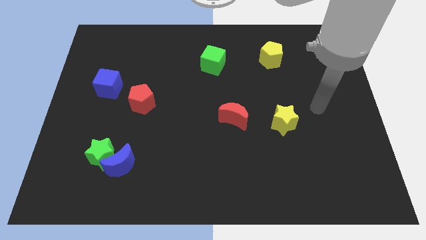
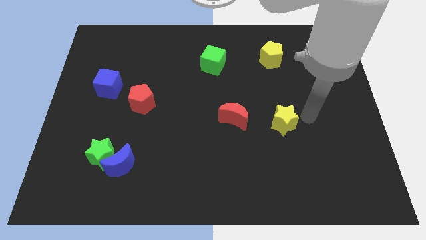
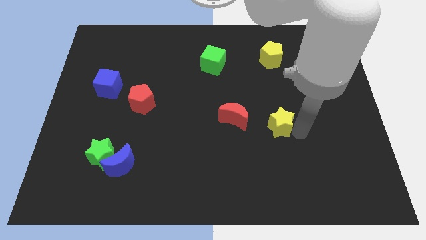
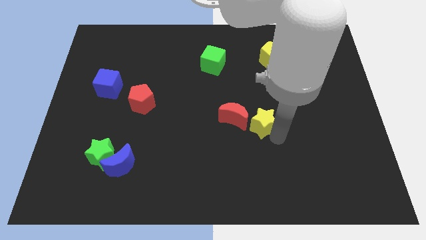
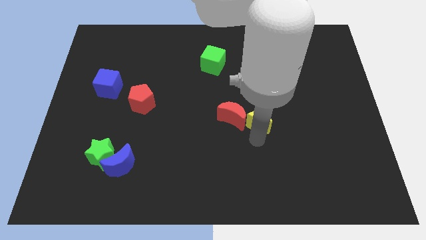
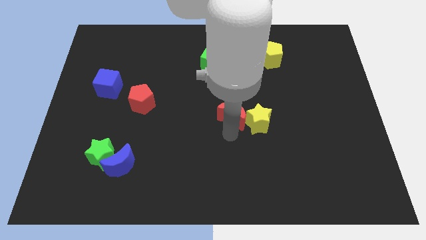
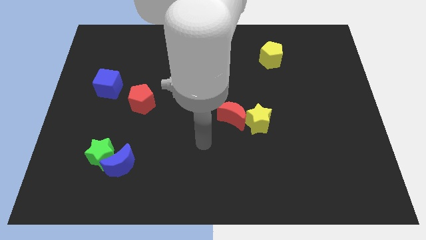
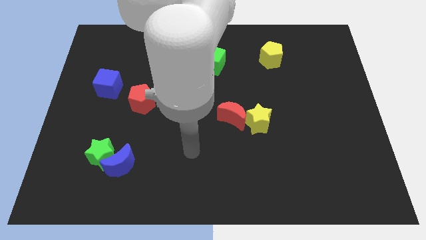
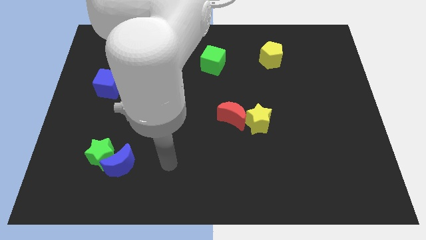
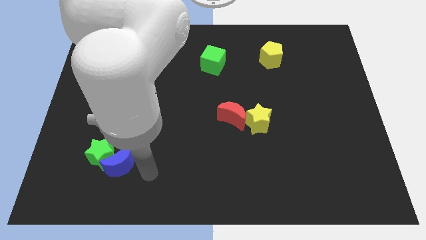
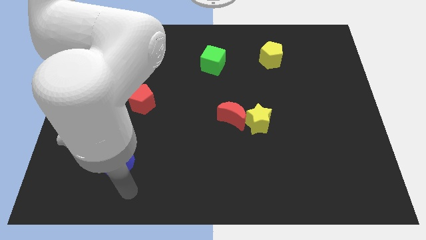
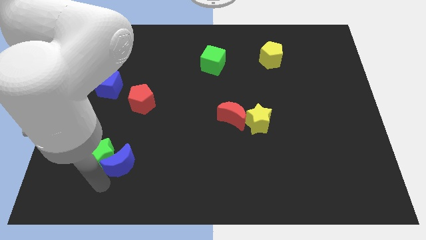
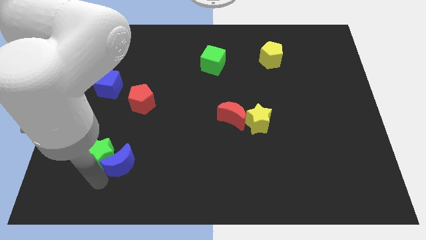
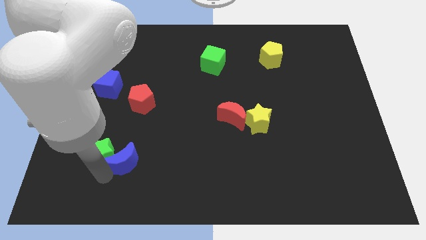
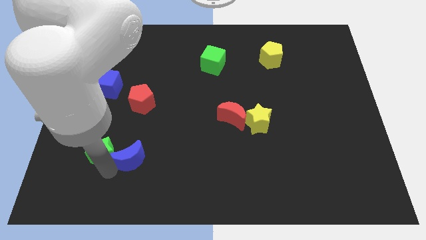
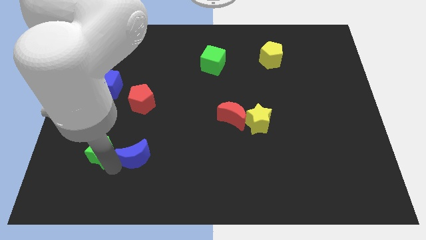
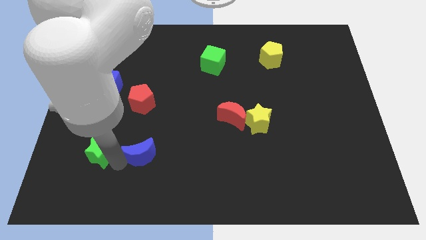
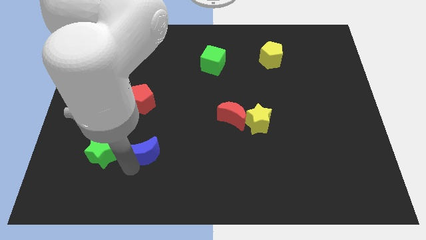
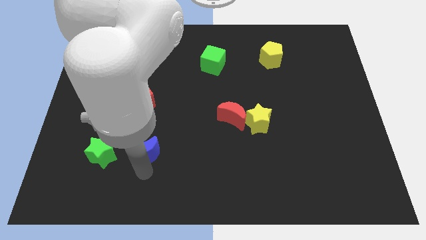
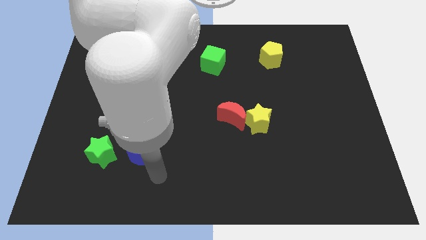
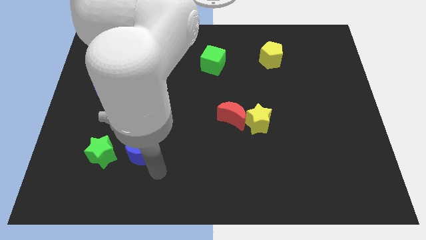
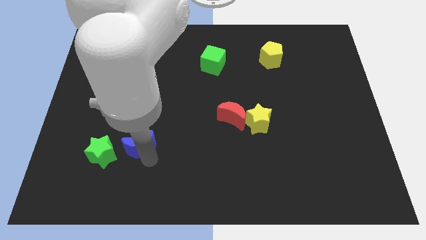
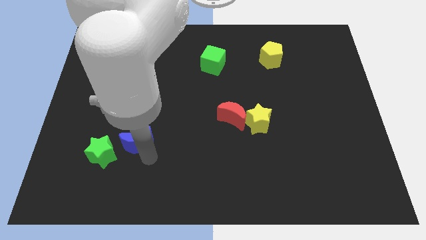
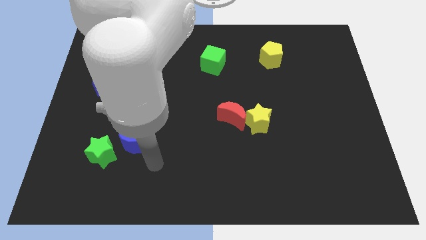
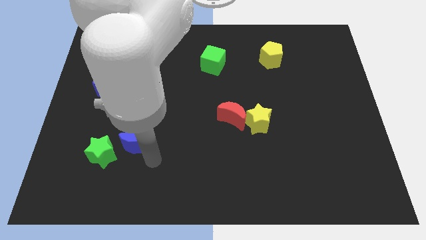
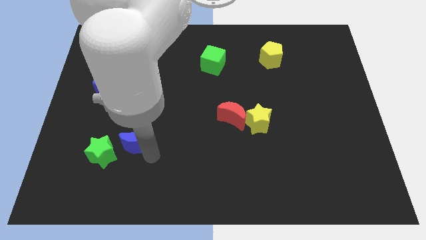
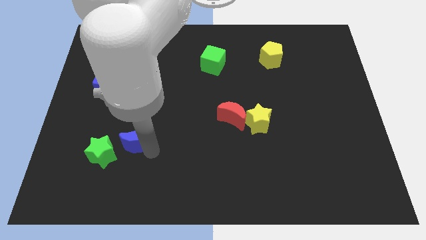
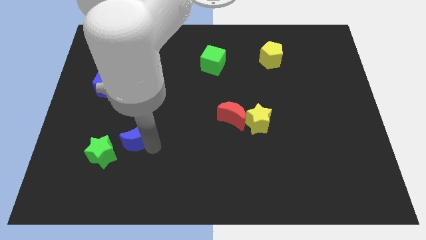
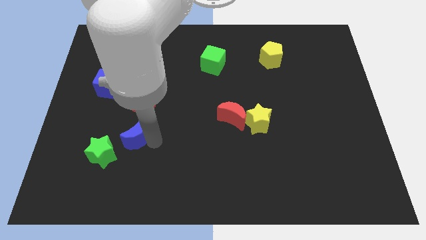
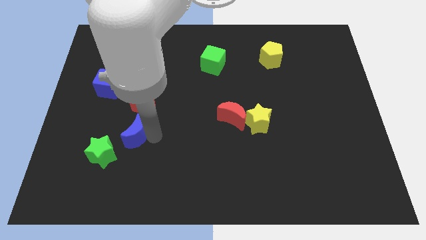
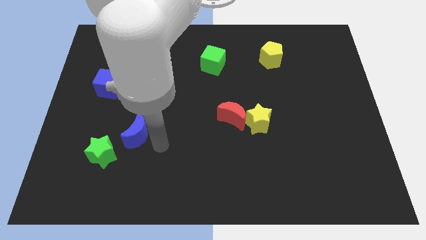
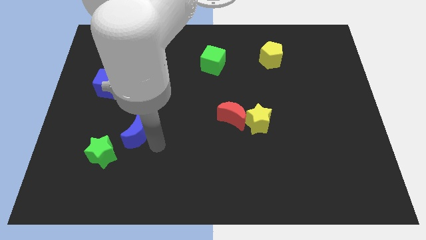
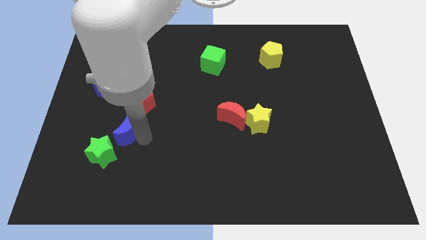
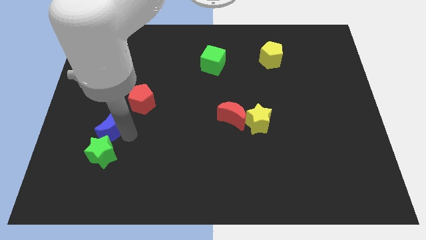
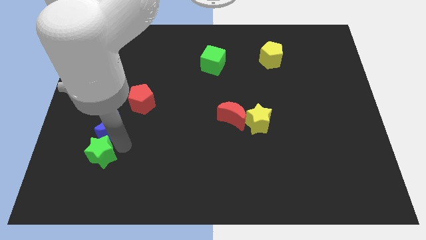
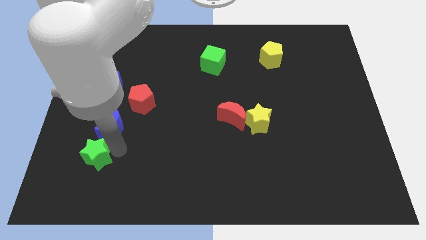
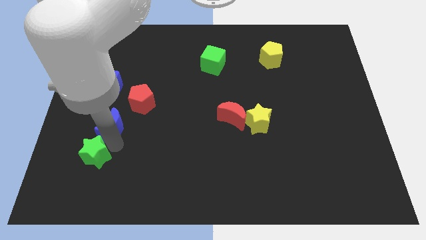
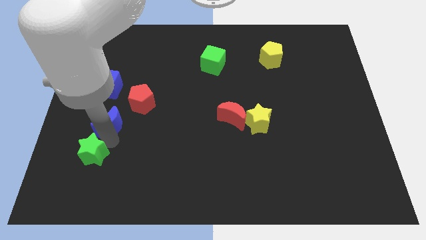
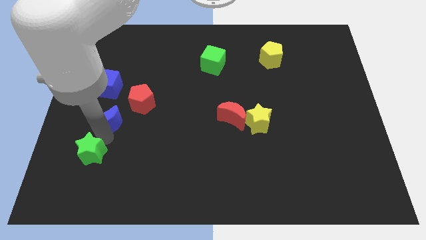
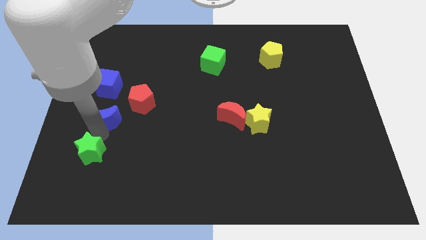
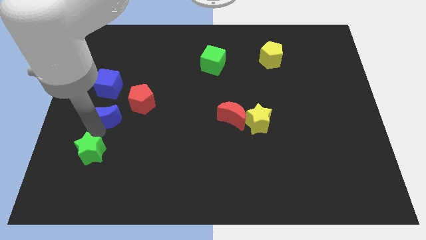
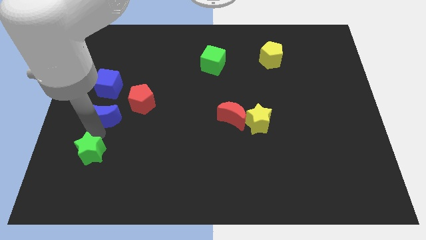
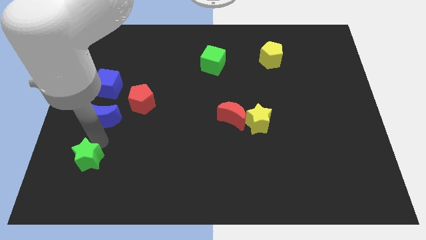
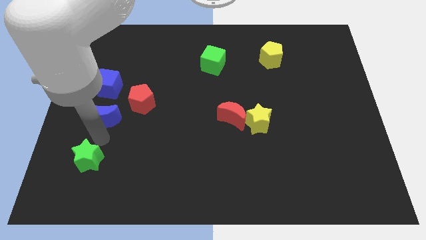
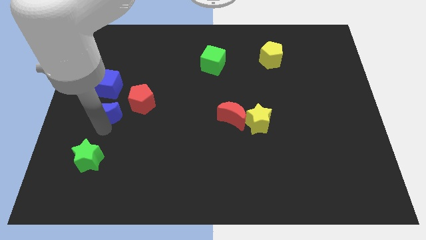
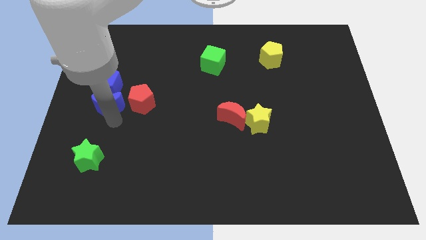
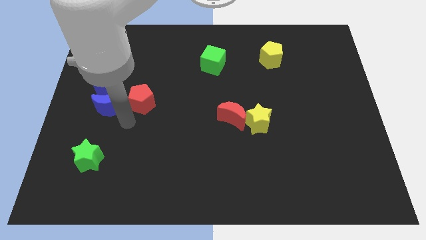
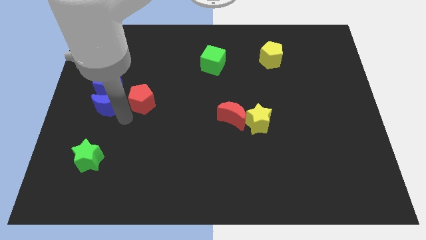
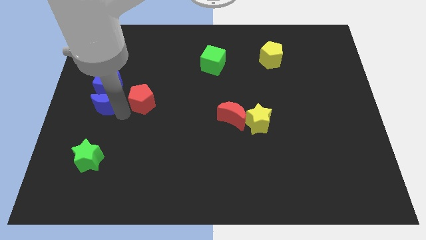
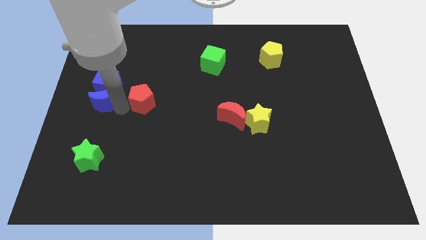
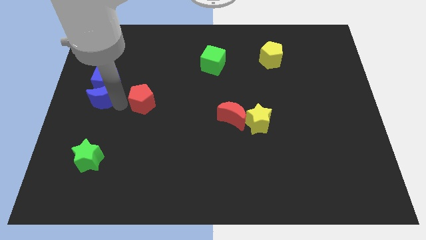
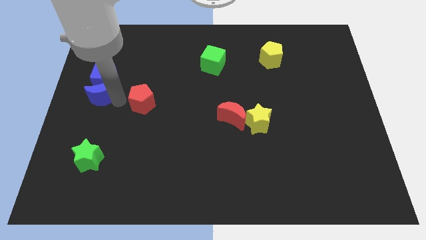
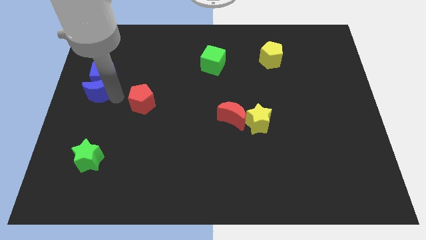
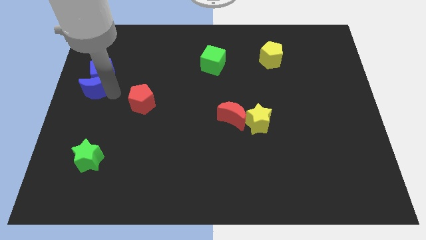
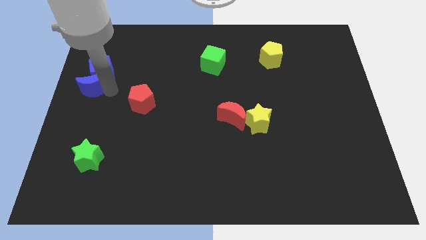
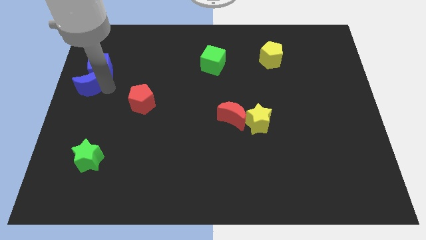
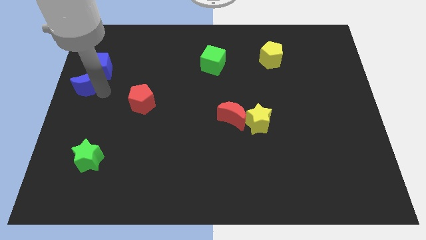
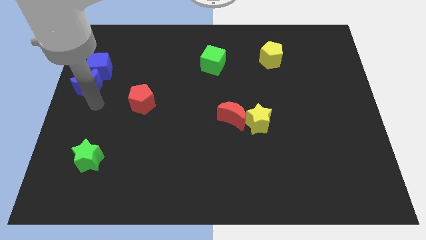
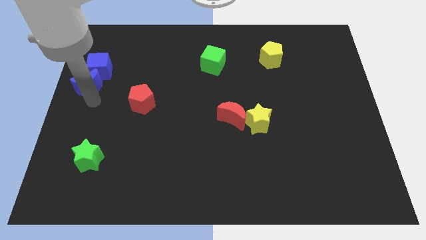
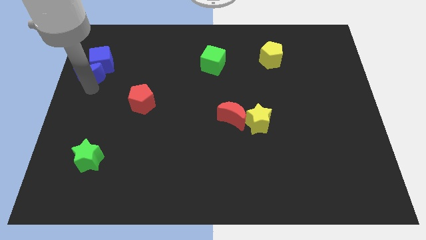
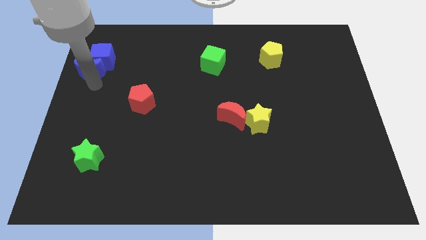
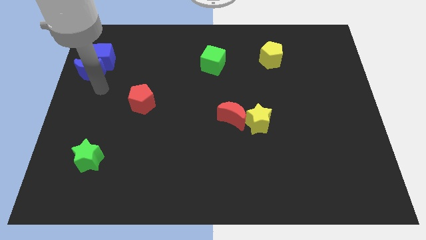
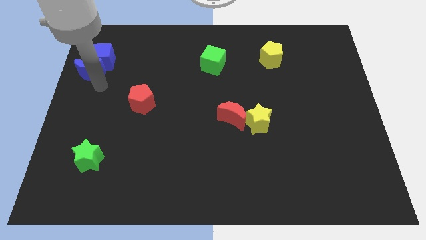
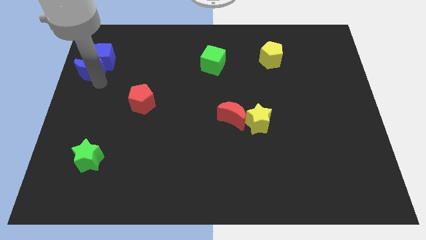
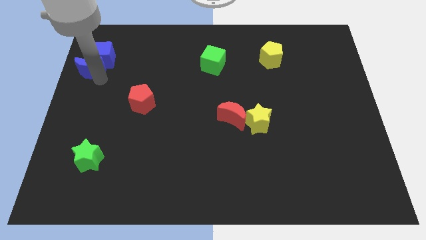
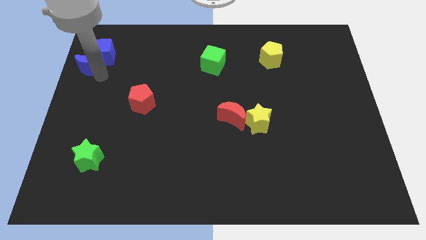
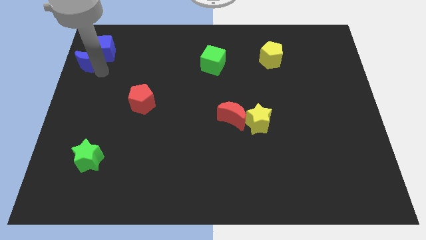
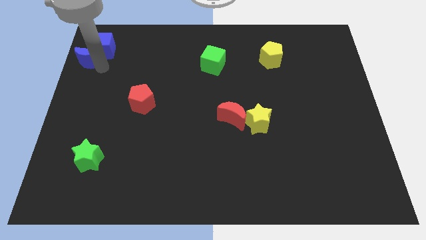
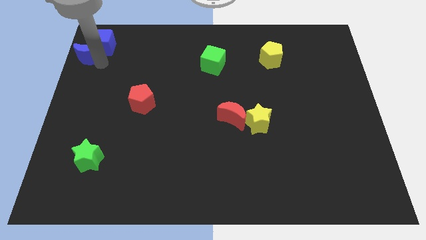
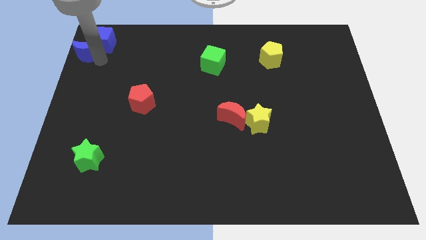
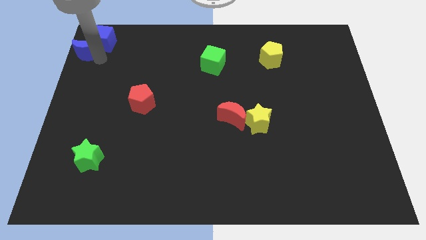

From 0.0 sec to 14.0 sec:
push the blue moon to the top left

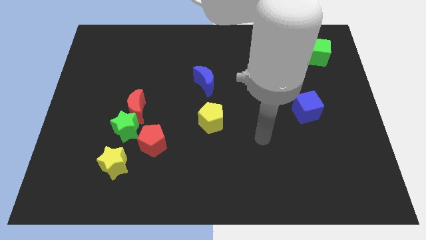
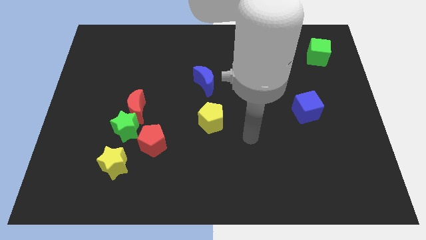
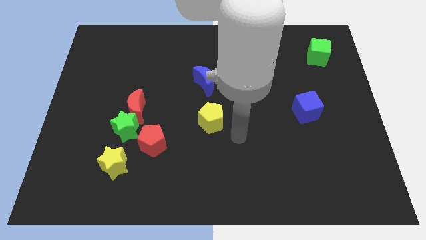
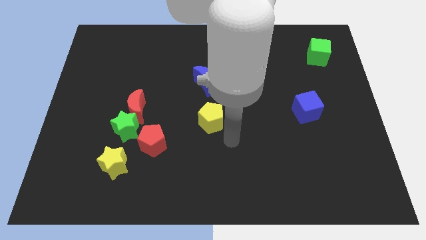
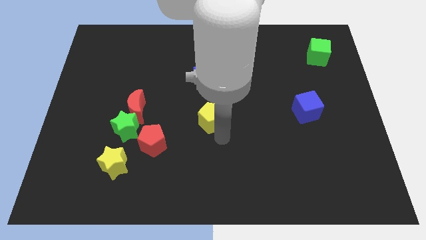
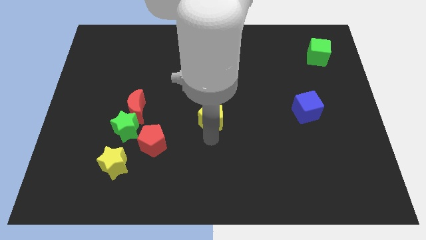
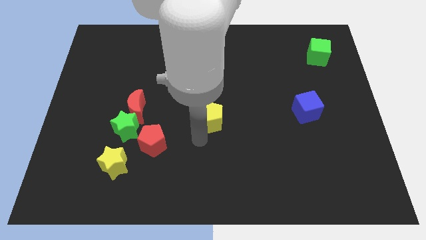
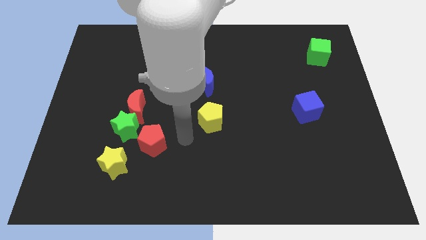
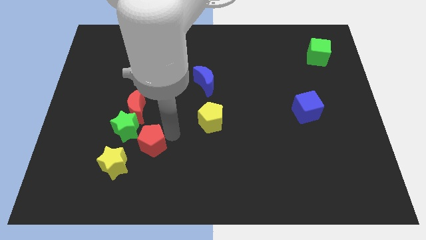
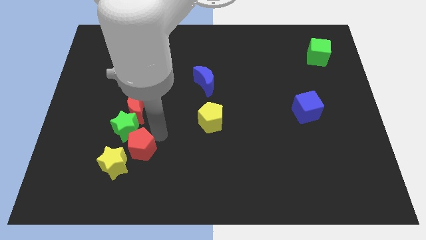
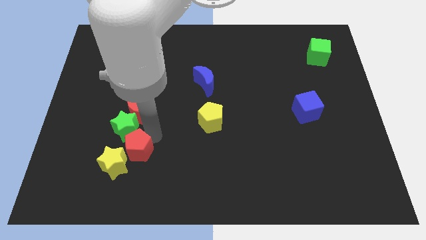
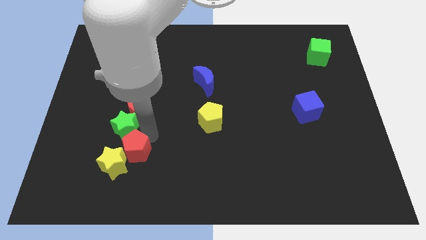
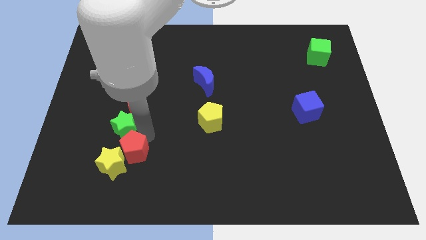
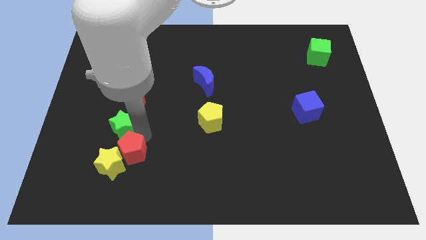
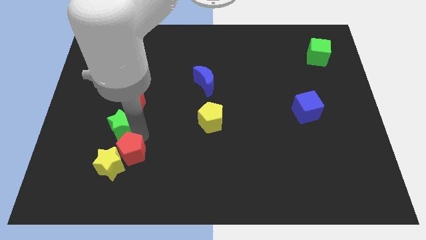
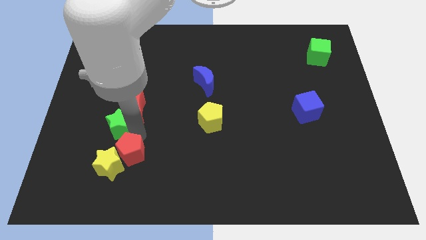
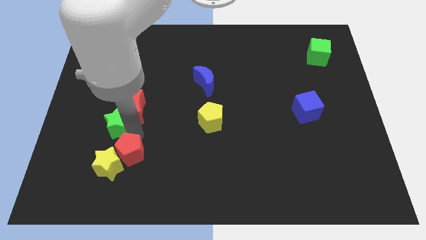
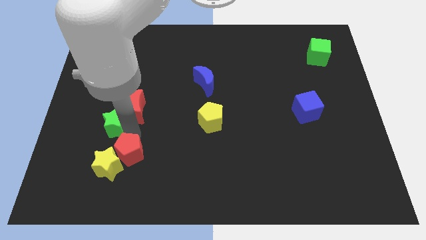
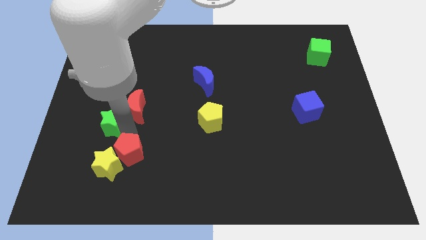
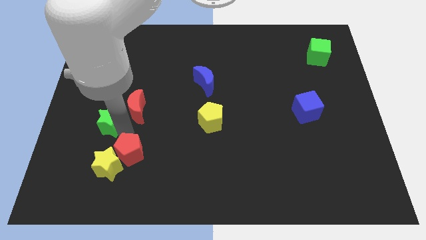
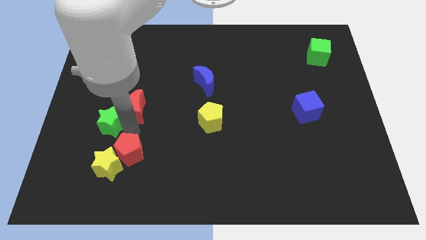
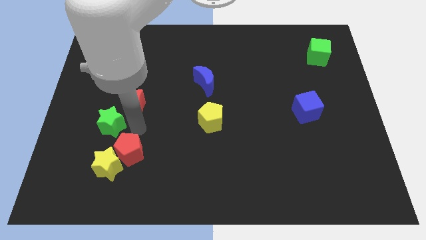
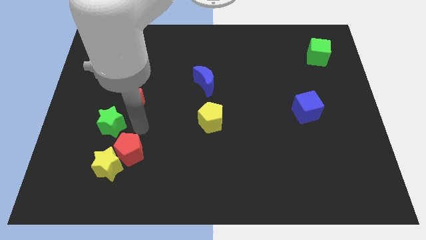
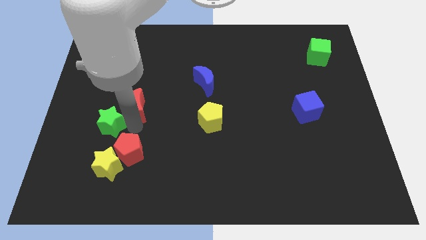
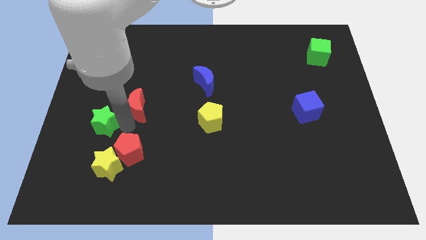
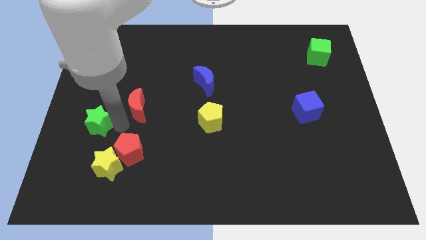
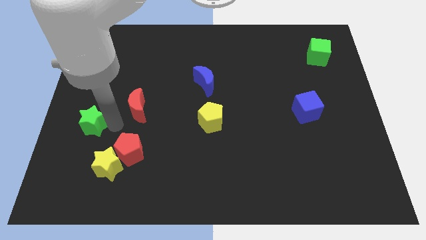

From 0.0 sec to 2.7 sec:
move the green star to the left side
